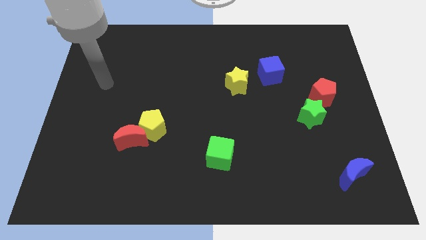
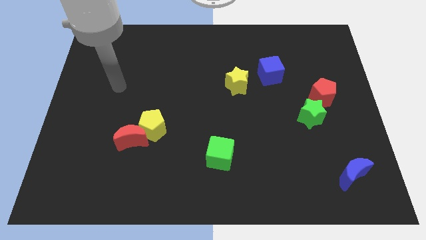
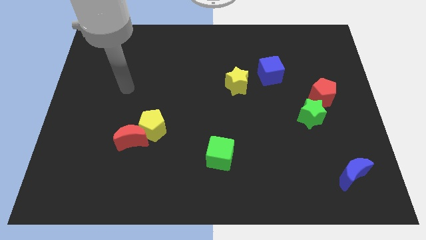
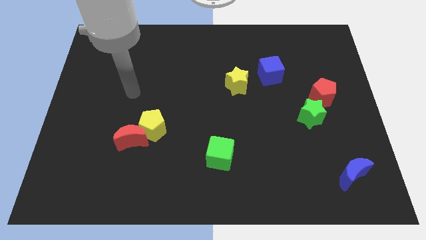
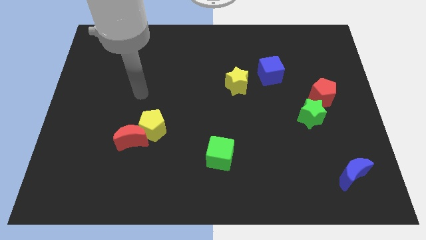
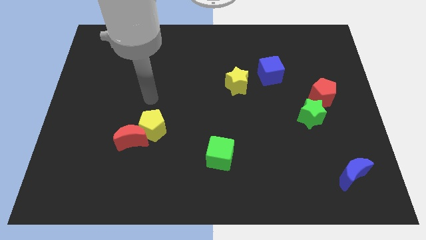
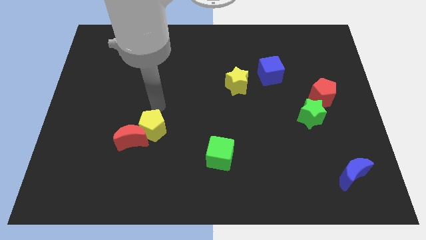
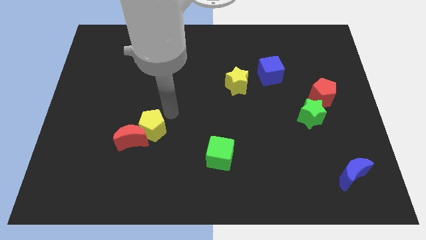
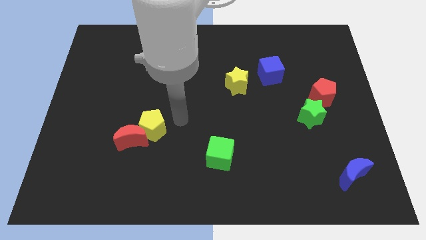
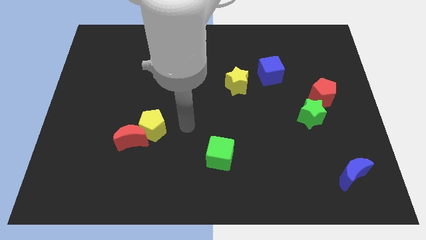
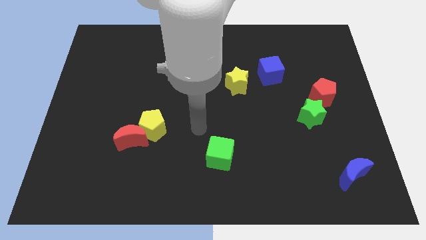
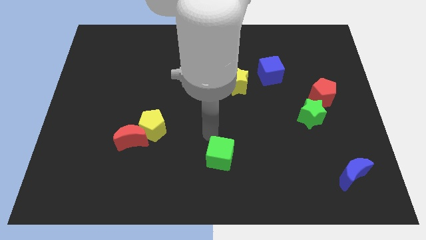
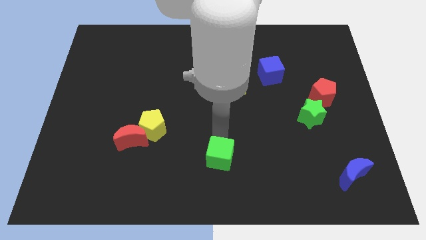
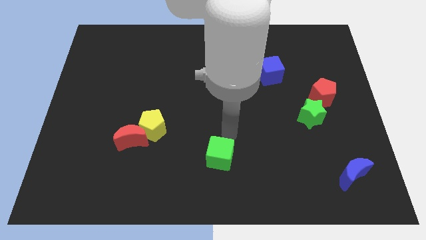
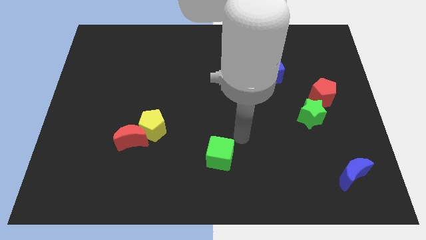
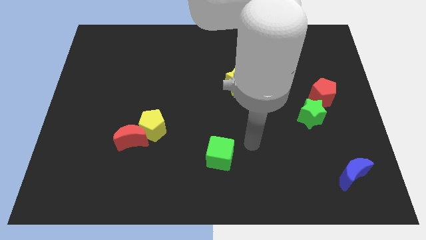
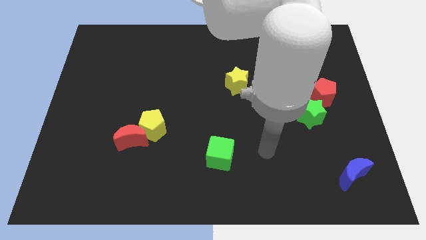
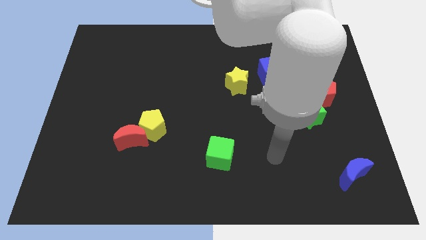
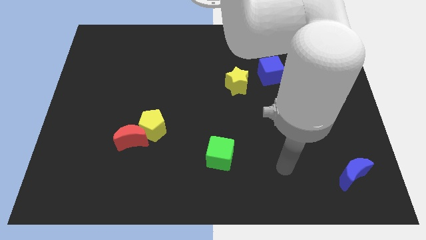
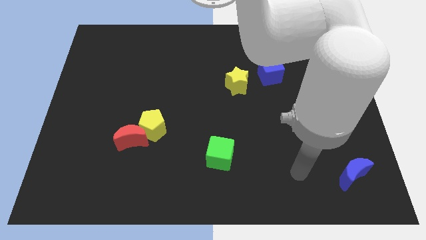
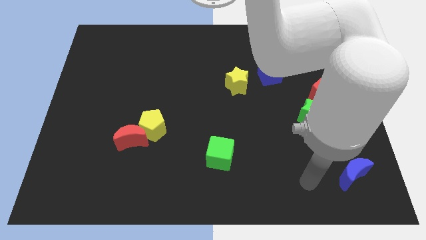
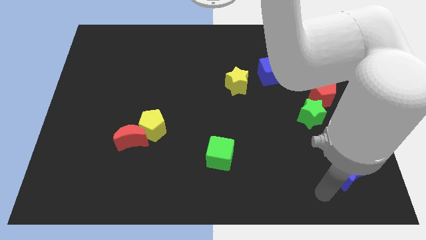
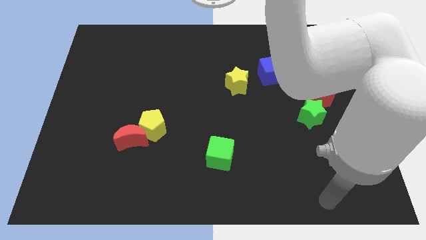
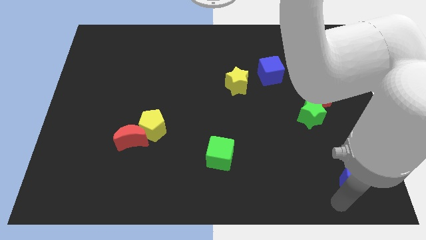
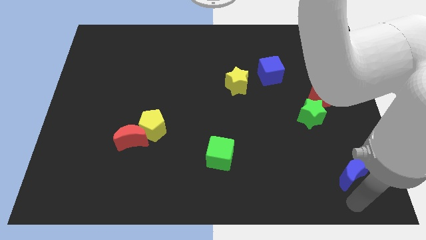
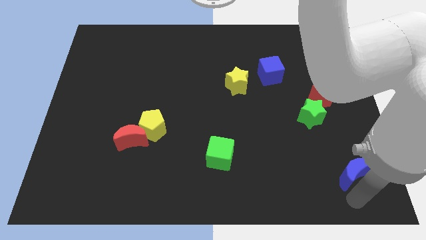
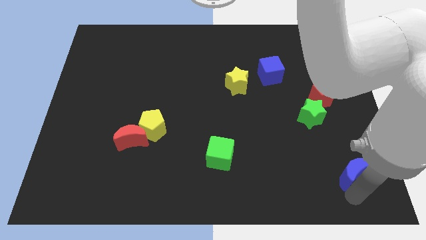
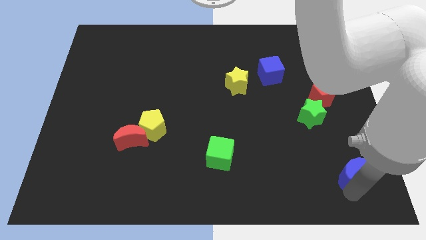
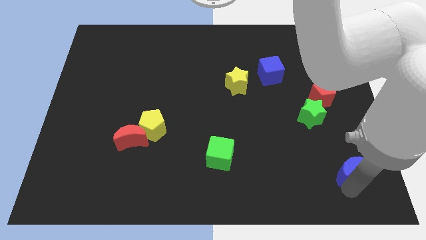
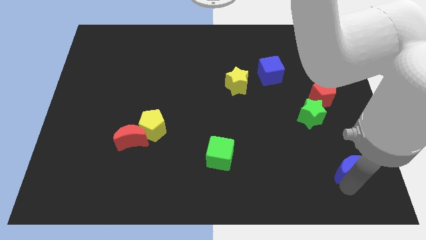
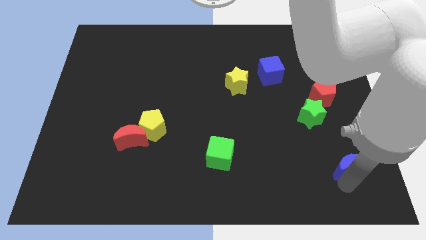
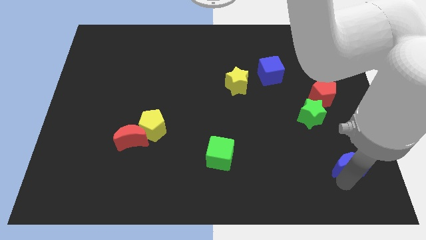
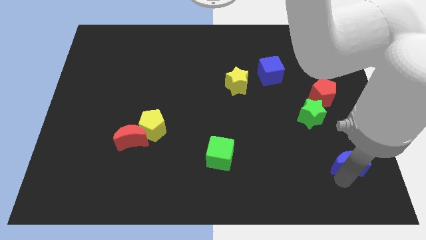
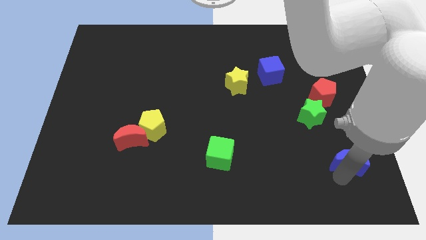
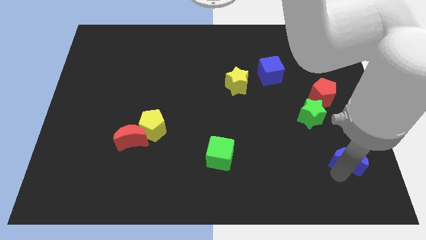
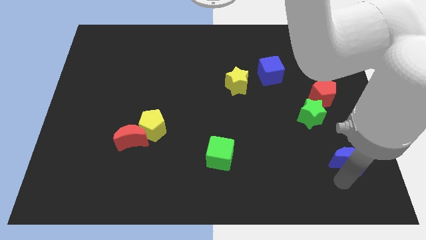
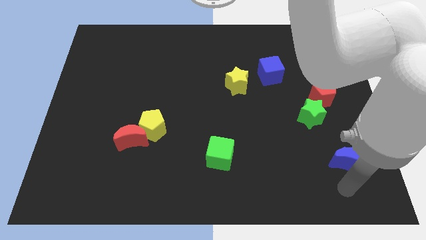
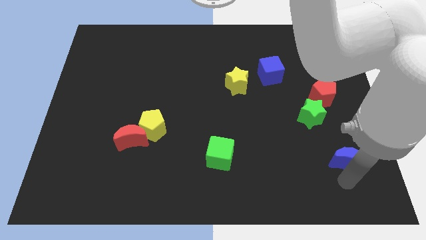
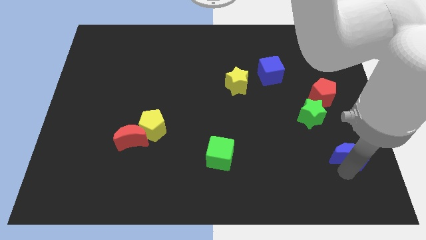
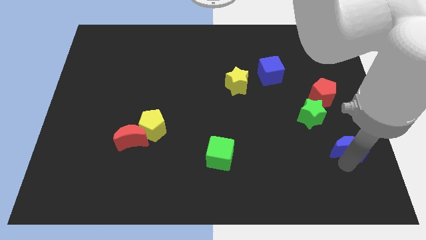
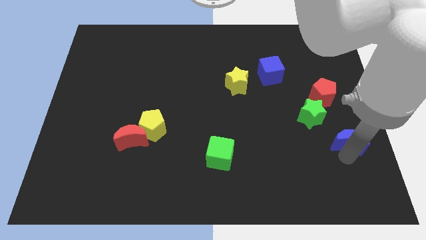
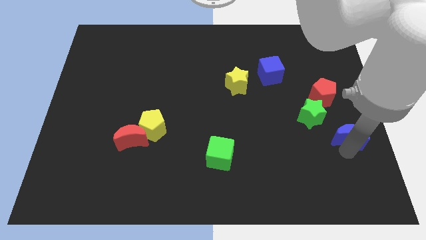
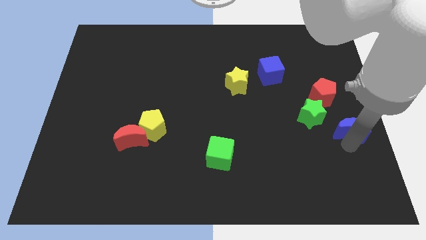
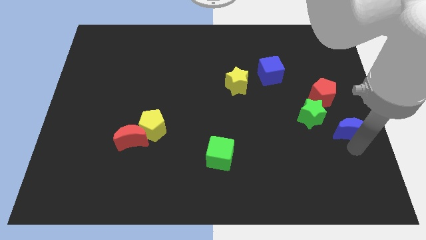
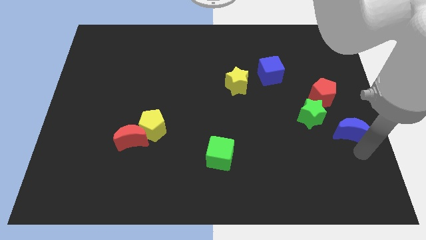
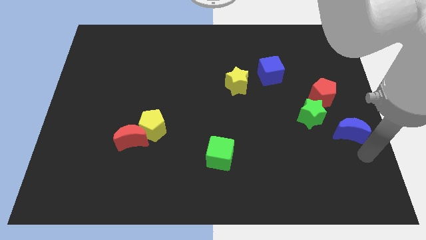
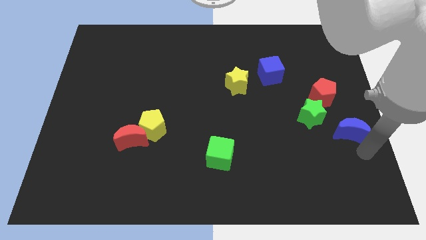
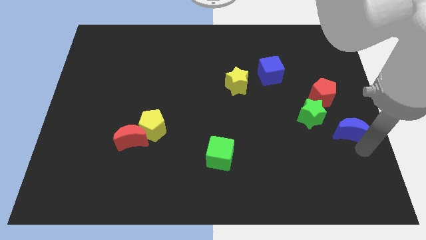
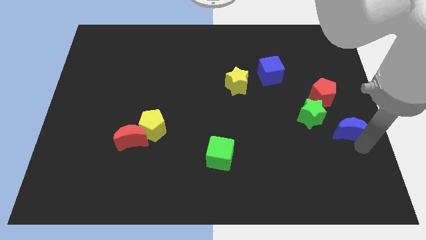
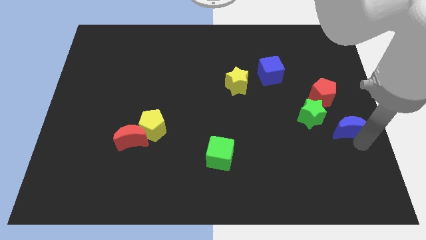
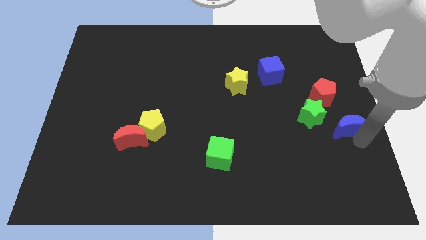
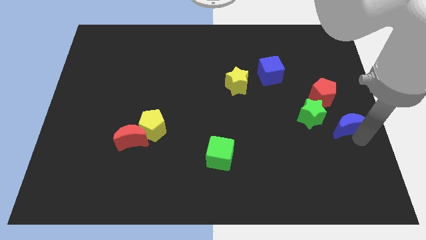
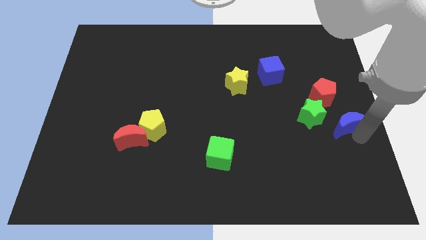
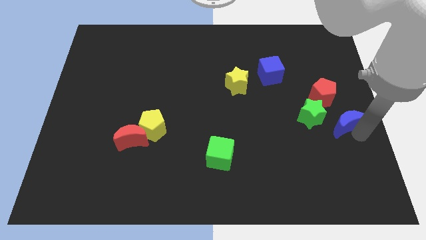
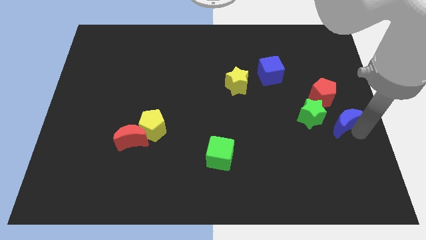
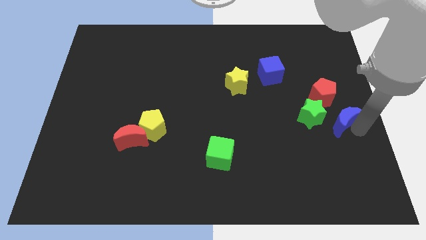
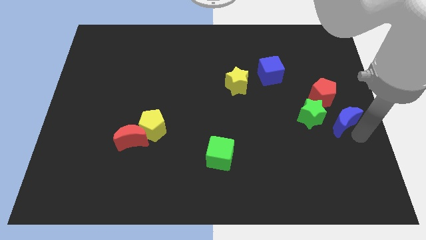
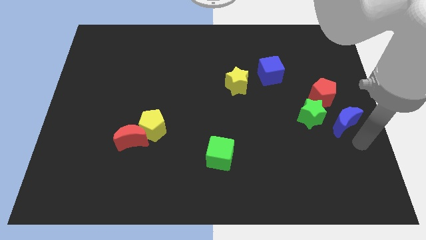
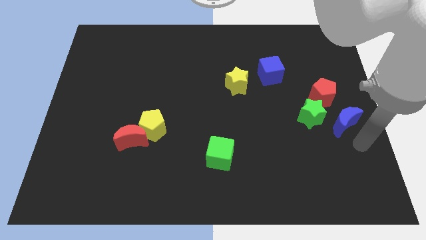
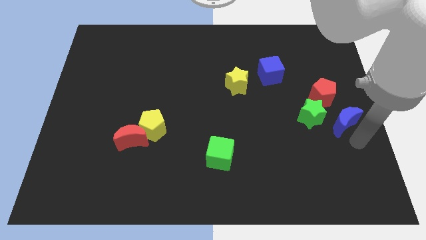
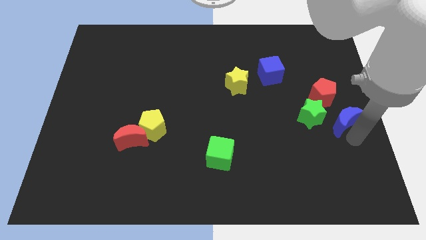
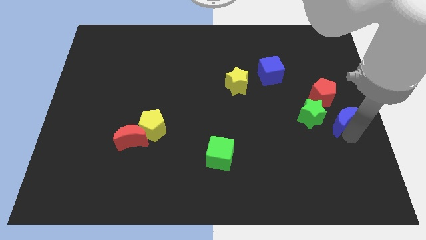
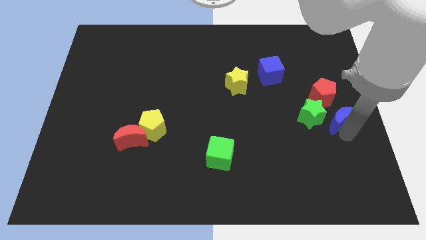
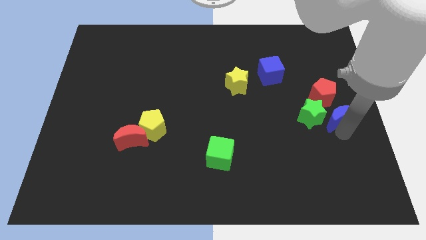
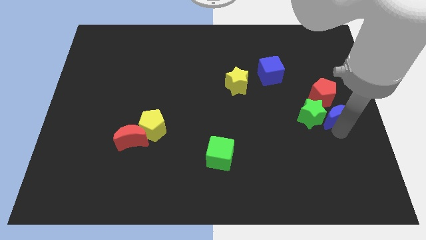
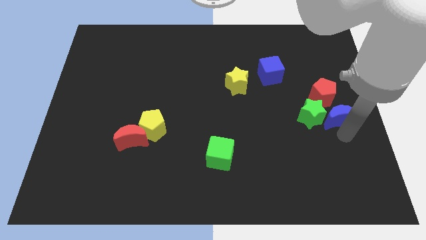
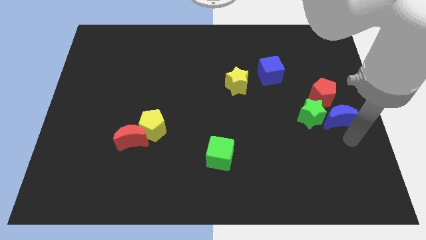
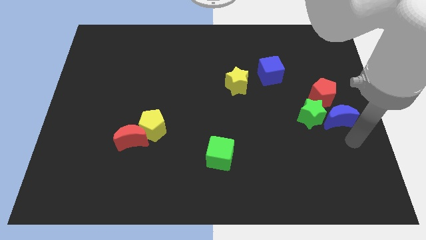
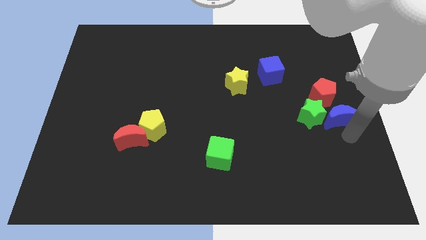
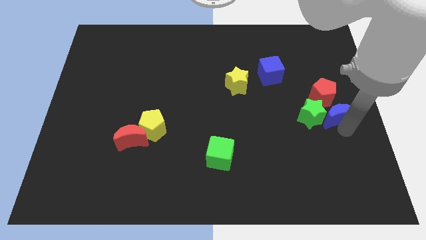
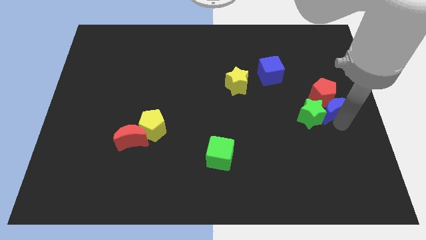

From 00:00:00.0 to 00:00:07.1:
move the blue moon towards the red pentagon

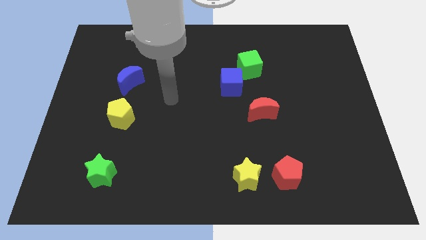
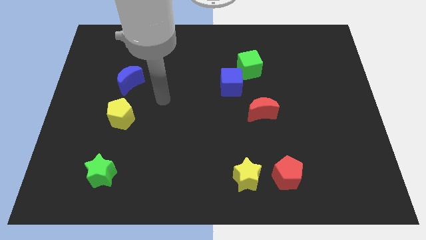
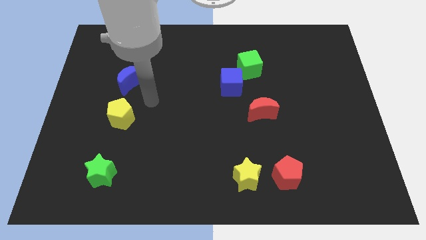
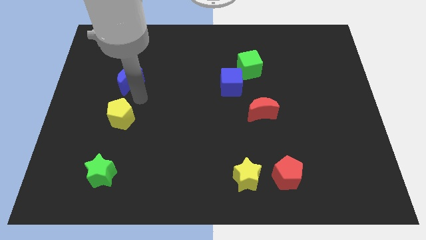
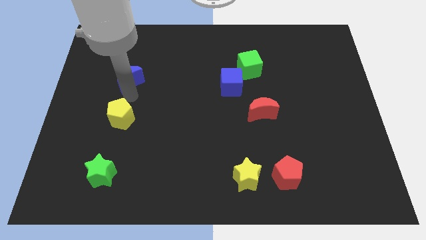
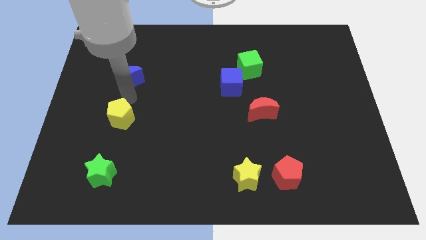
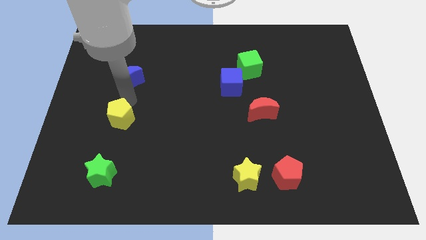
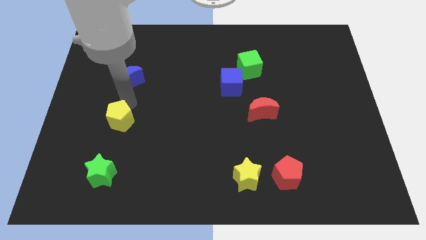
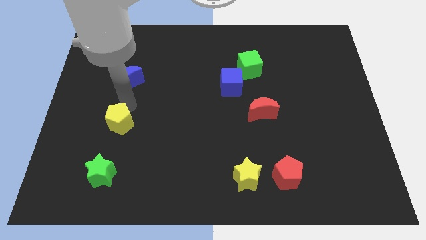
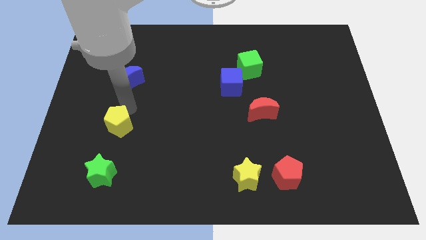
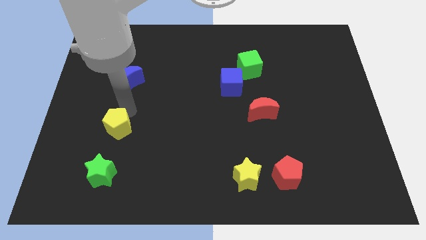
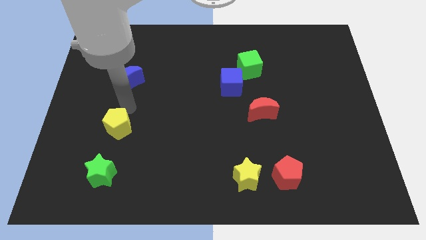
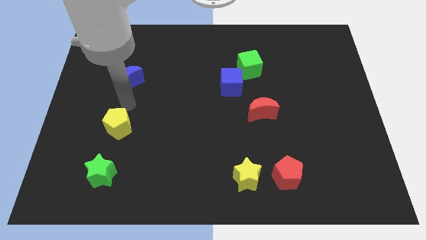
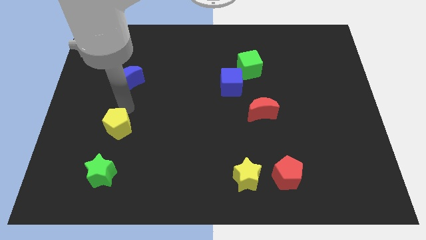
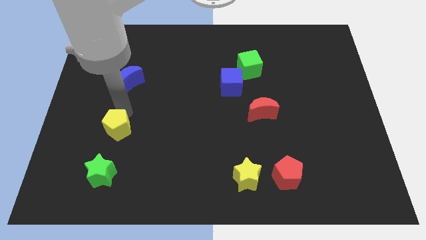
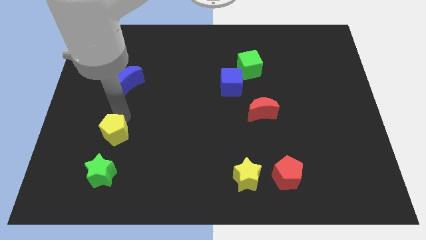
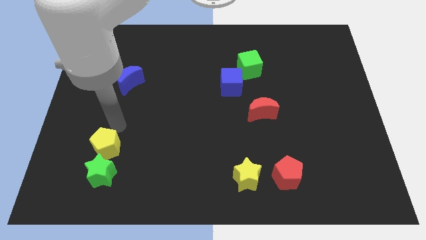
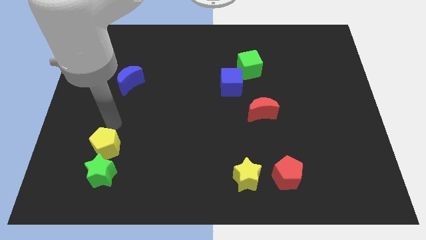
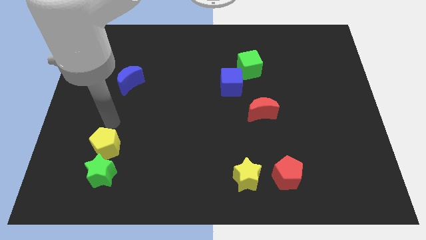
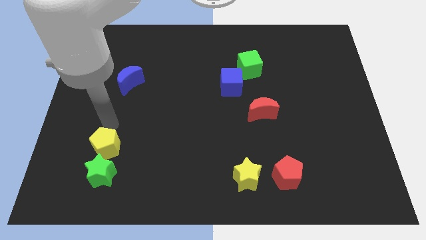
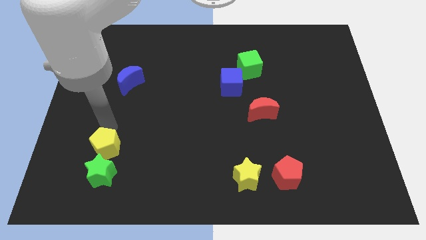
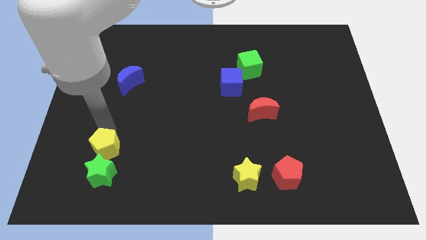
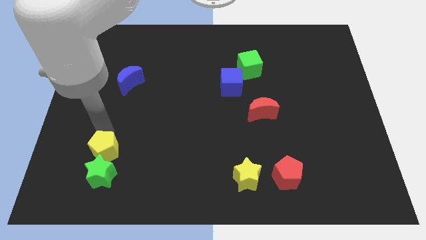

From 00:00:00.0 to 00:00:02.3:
put the yellow pentagon next to the green star
